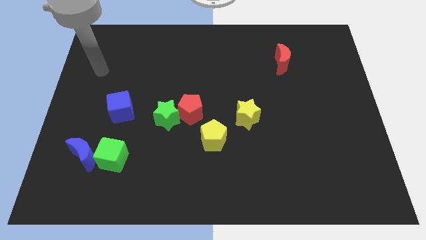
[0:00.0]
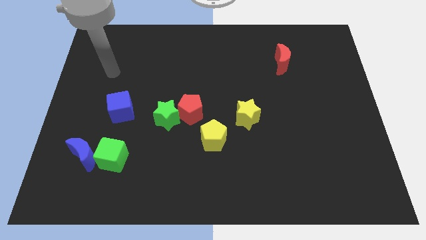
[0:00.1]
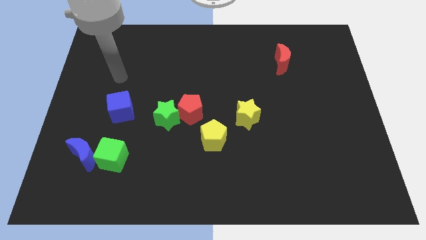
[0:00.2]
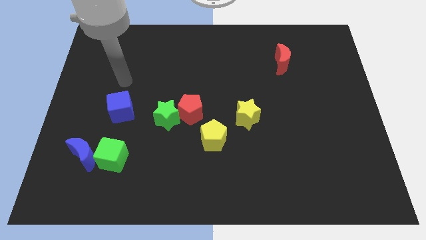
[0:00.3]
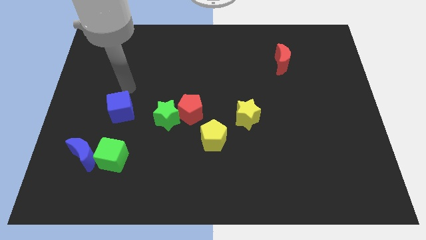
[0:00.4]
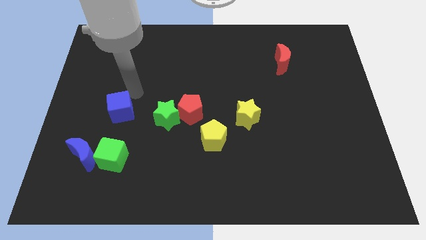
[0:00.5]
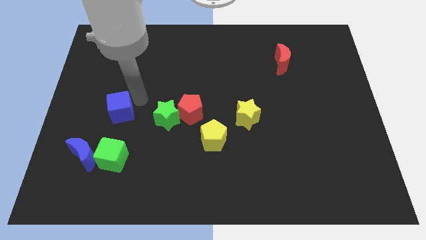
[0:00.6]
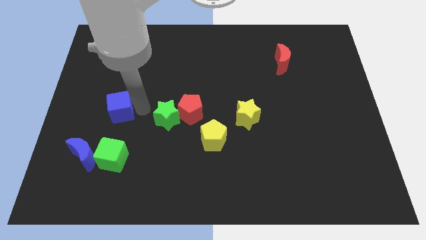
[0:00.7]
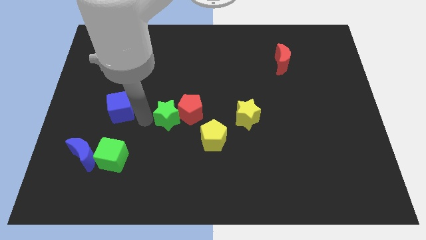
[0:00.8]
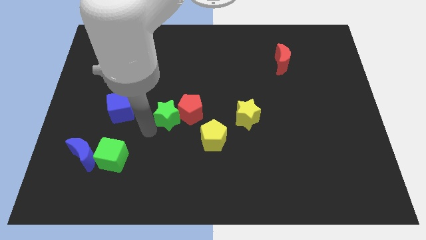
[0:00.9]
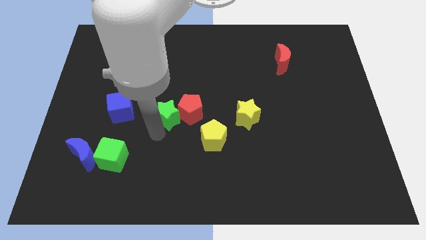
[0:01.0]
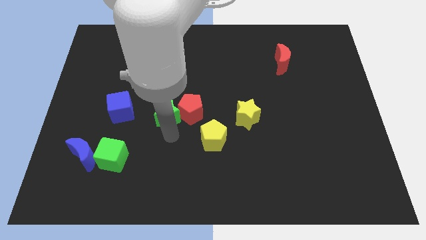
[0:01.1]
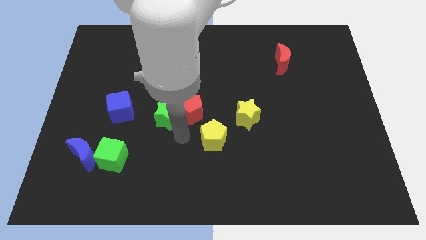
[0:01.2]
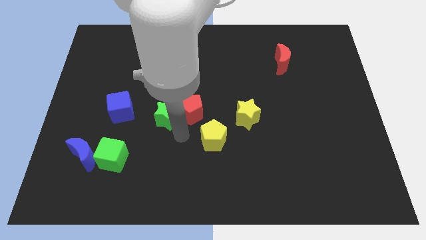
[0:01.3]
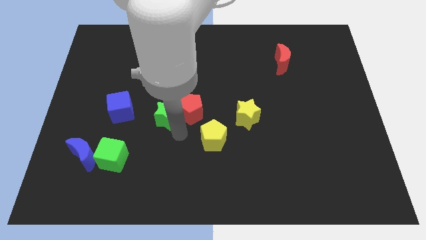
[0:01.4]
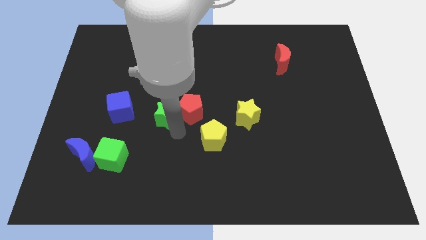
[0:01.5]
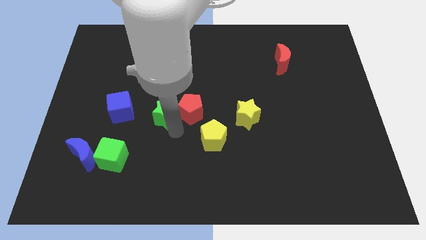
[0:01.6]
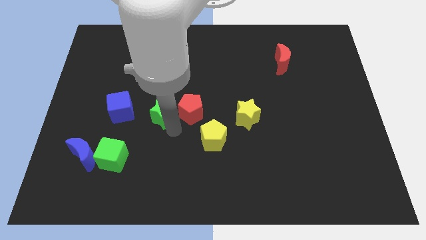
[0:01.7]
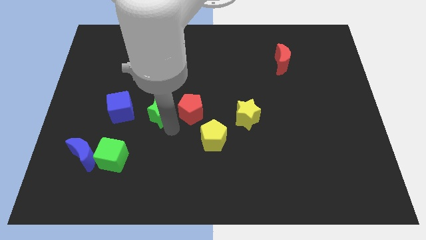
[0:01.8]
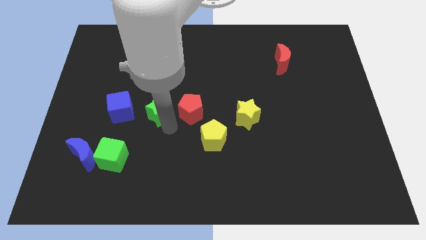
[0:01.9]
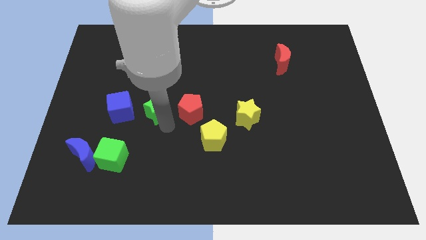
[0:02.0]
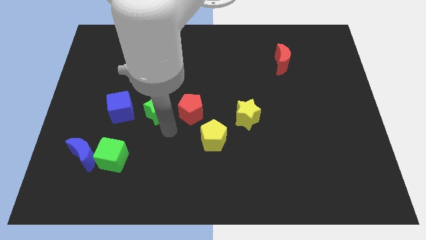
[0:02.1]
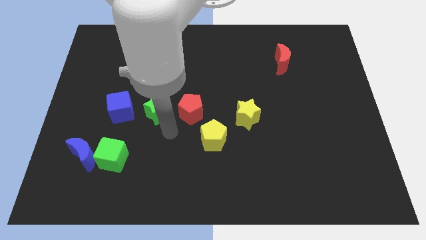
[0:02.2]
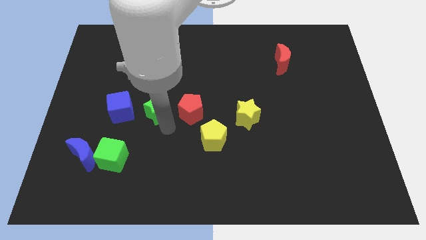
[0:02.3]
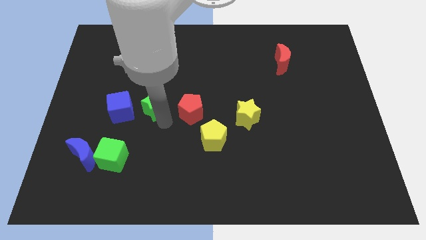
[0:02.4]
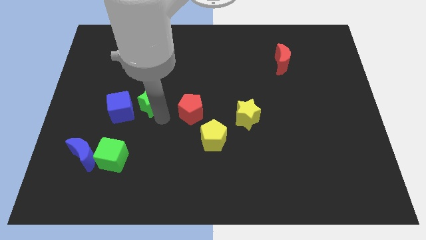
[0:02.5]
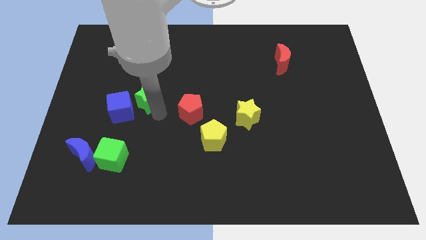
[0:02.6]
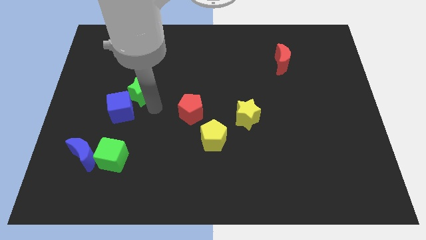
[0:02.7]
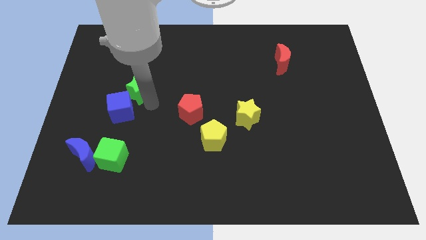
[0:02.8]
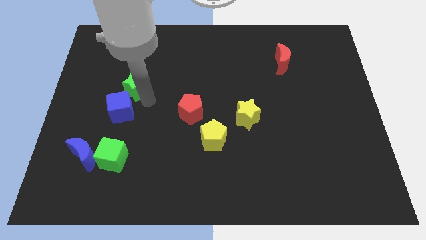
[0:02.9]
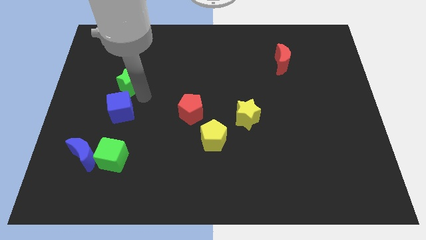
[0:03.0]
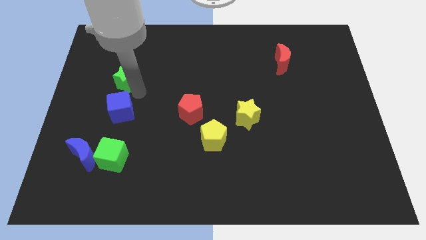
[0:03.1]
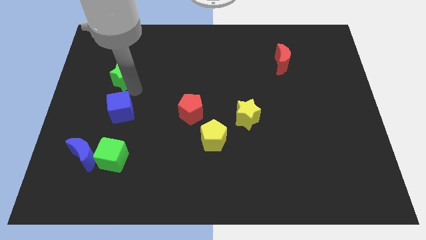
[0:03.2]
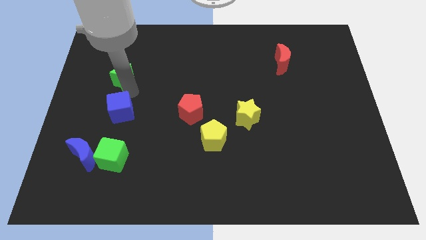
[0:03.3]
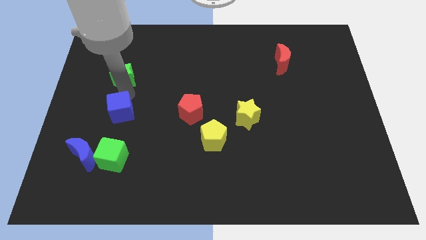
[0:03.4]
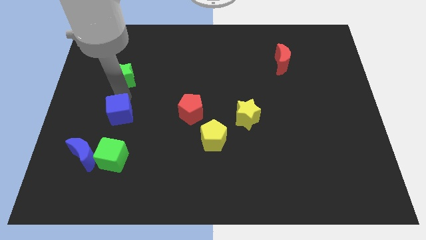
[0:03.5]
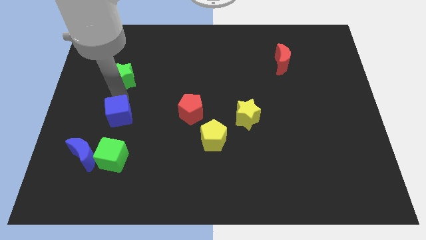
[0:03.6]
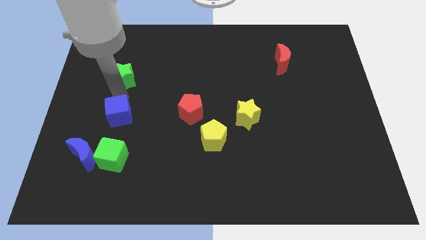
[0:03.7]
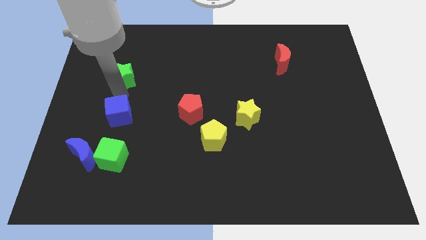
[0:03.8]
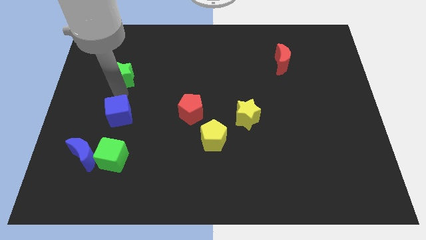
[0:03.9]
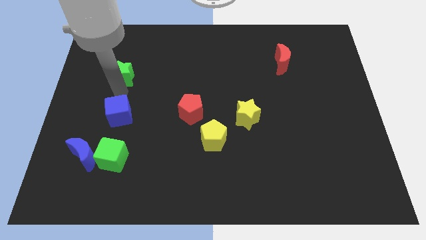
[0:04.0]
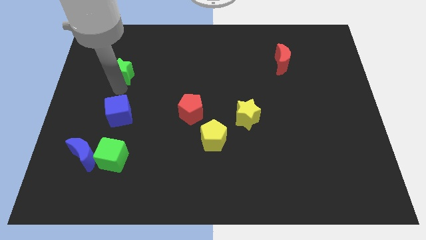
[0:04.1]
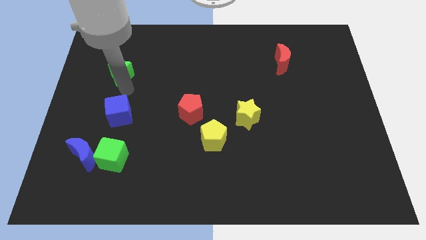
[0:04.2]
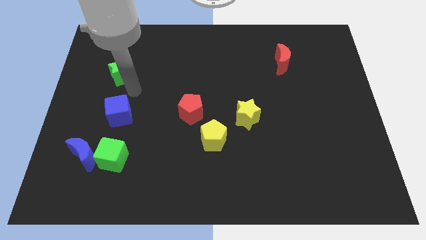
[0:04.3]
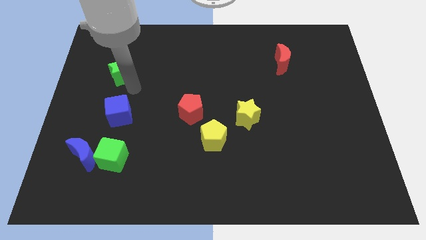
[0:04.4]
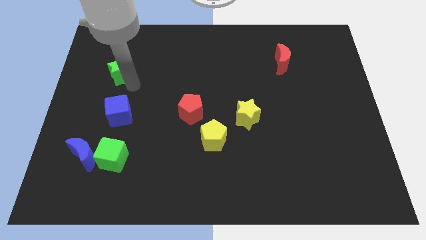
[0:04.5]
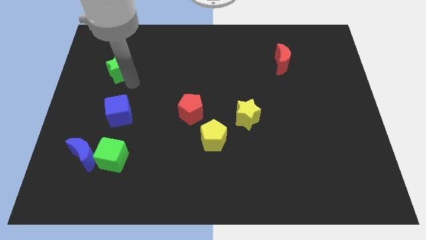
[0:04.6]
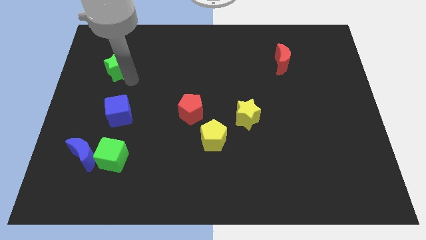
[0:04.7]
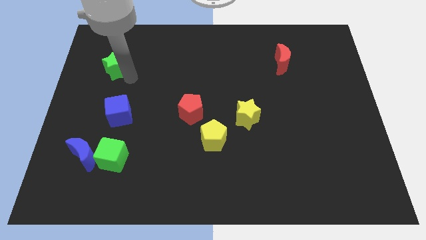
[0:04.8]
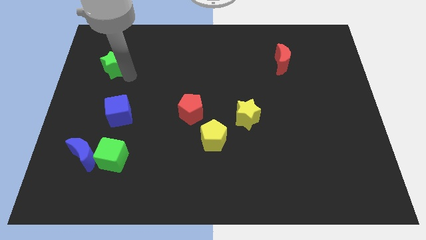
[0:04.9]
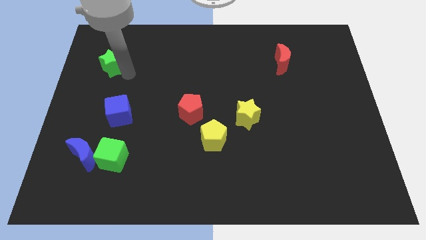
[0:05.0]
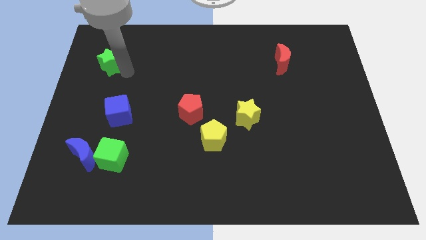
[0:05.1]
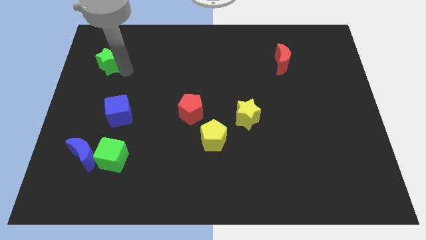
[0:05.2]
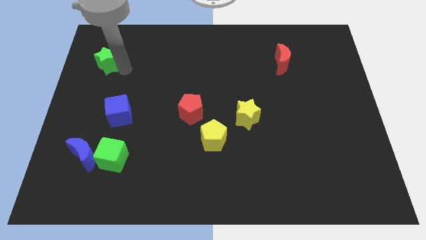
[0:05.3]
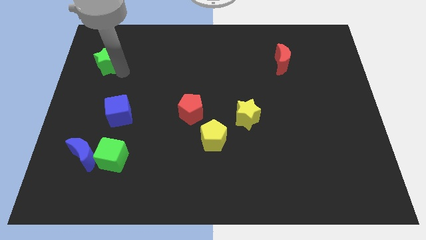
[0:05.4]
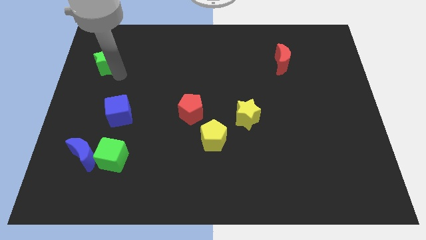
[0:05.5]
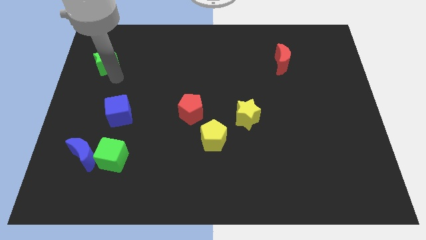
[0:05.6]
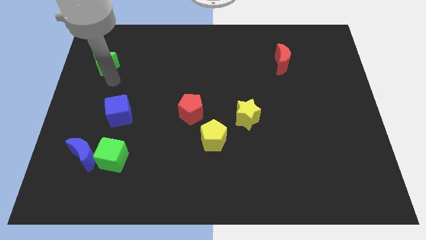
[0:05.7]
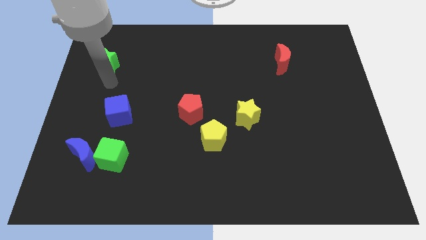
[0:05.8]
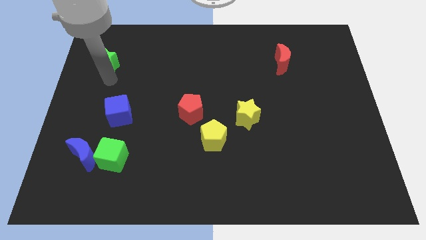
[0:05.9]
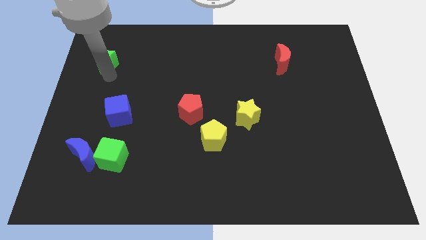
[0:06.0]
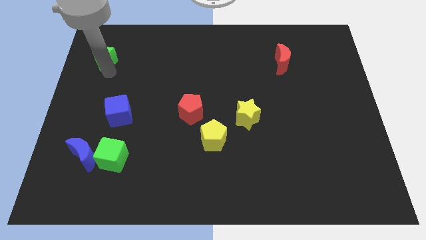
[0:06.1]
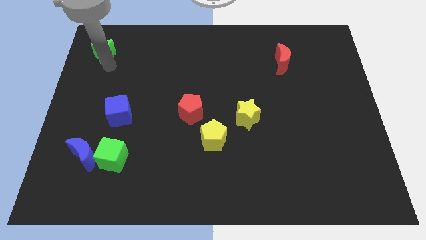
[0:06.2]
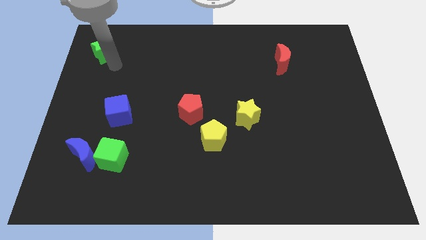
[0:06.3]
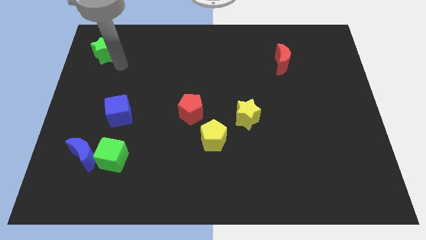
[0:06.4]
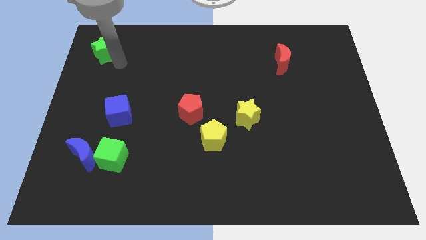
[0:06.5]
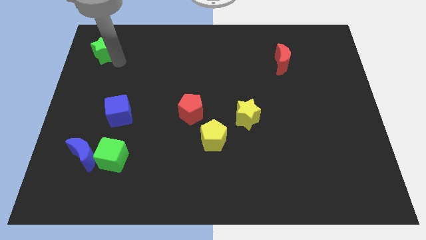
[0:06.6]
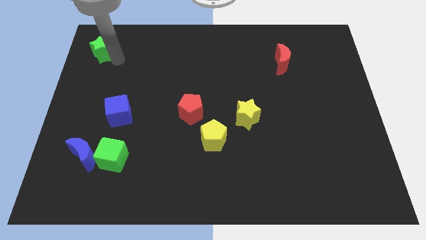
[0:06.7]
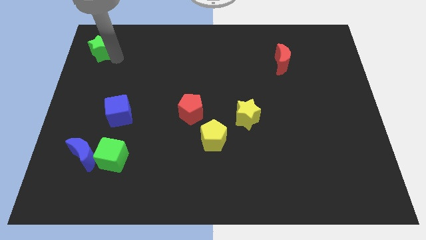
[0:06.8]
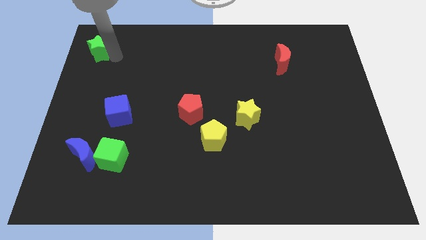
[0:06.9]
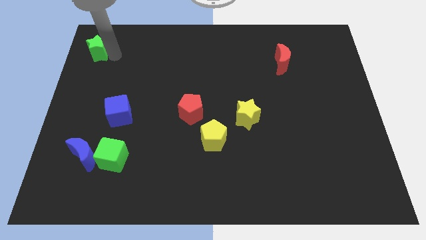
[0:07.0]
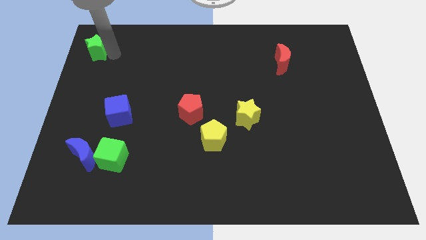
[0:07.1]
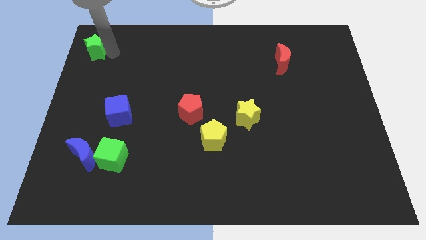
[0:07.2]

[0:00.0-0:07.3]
slide the green star to the top left of the board

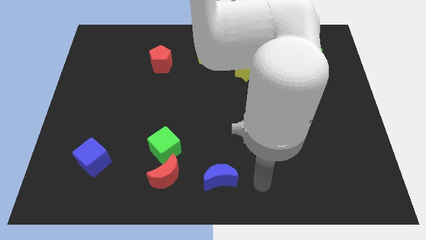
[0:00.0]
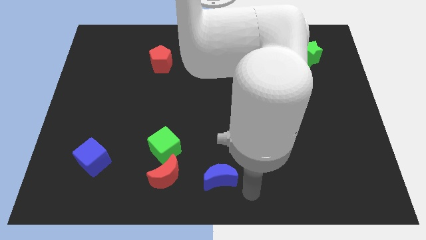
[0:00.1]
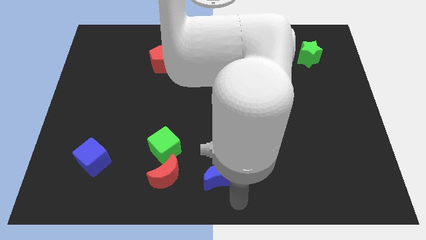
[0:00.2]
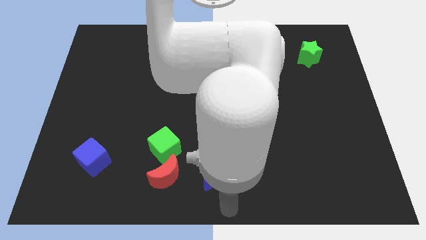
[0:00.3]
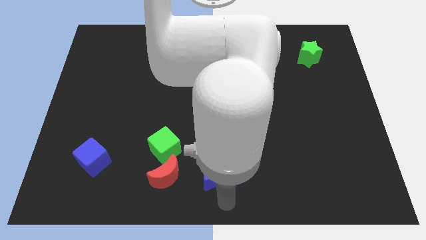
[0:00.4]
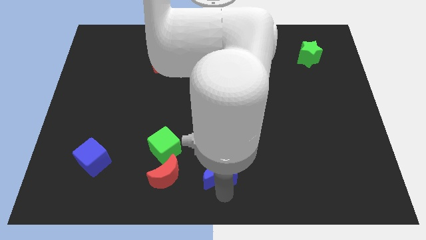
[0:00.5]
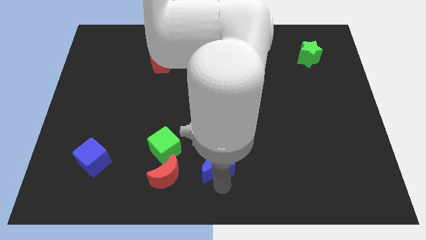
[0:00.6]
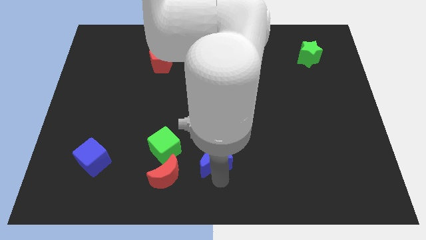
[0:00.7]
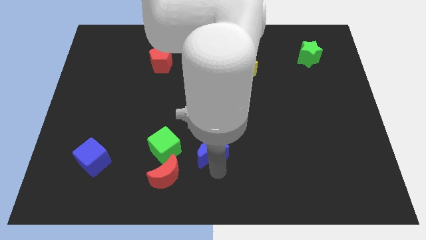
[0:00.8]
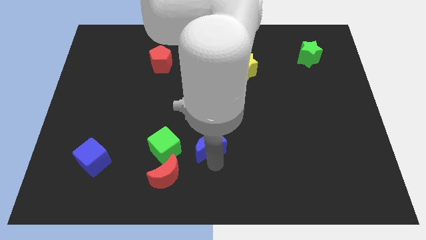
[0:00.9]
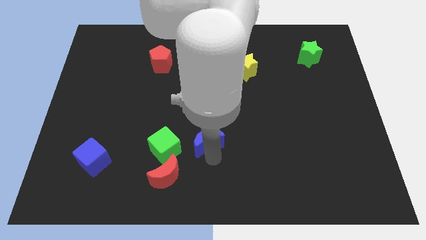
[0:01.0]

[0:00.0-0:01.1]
put the blue moon to the center of the board
